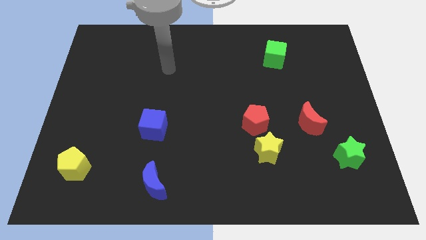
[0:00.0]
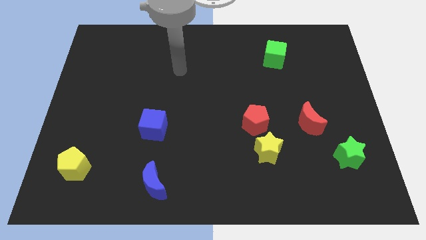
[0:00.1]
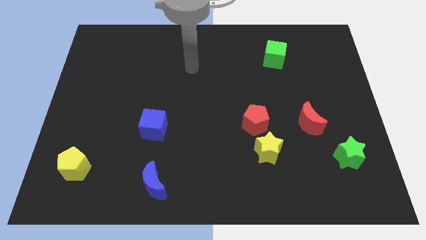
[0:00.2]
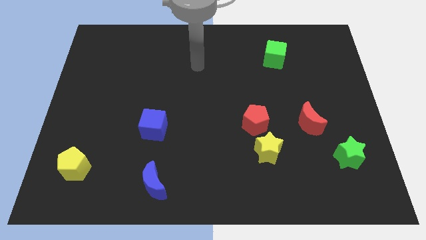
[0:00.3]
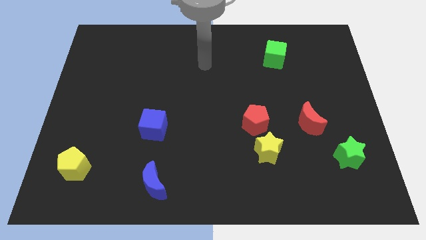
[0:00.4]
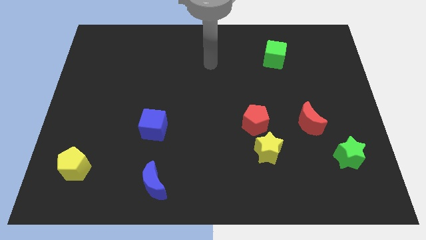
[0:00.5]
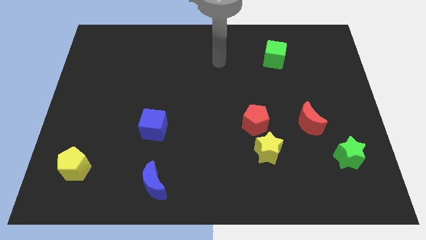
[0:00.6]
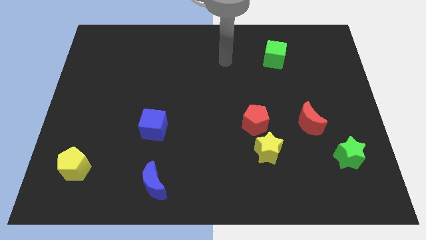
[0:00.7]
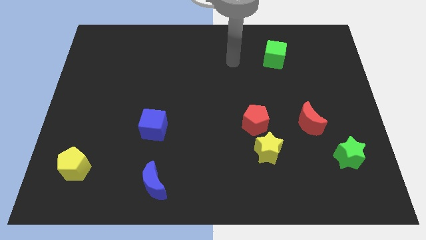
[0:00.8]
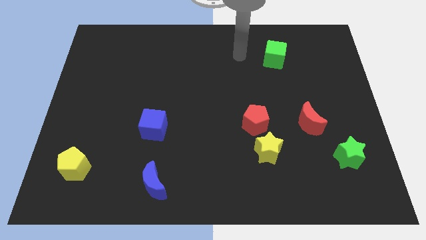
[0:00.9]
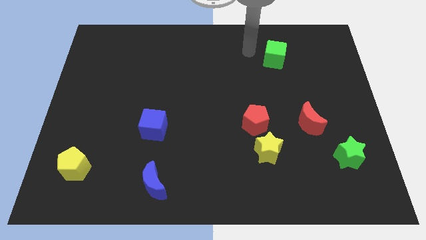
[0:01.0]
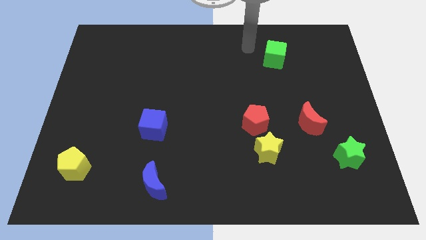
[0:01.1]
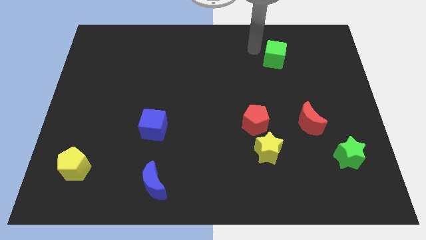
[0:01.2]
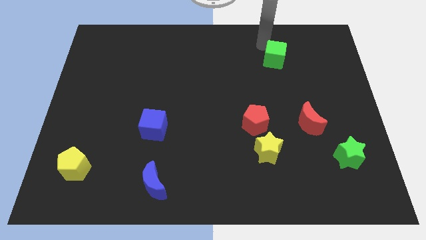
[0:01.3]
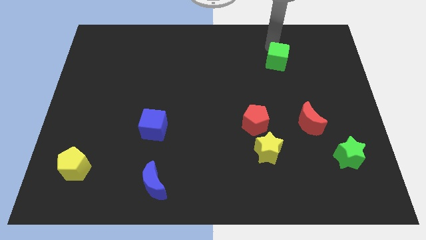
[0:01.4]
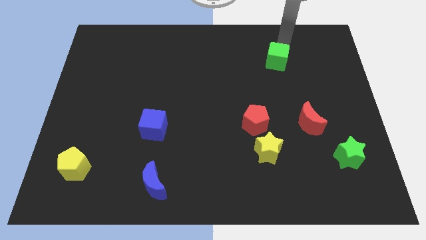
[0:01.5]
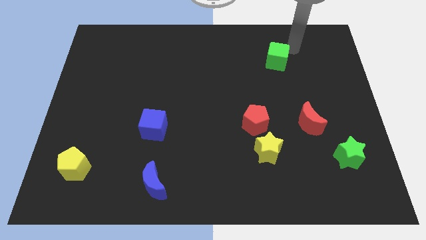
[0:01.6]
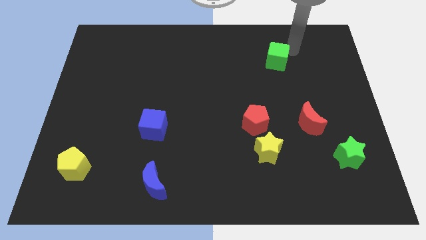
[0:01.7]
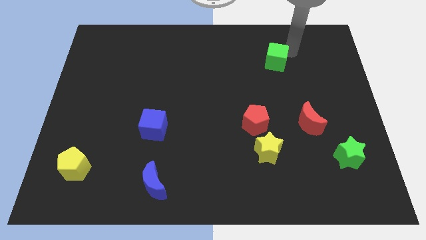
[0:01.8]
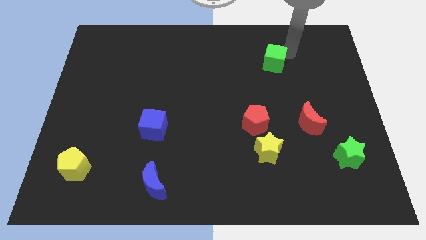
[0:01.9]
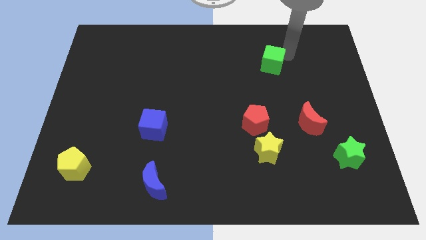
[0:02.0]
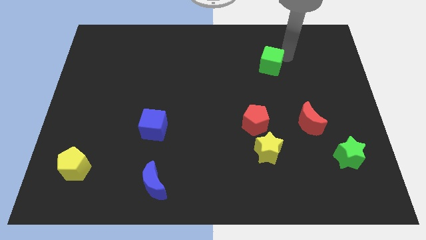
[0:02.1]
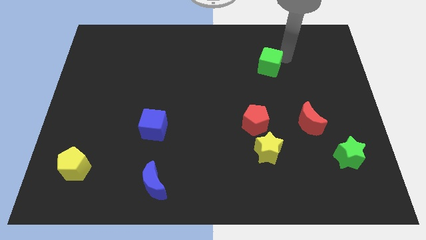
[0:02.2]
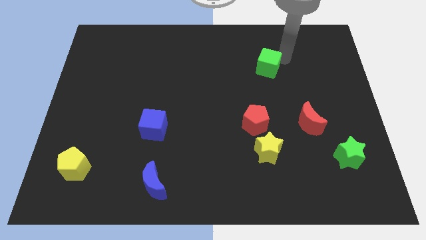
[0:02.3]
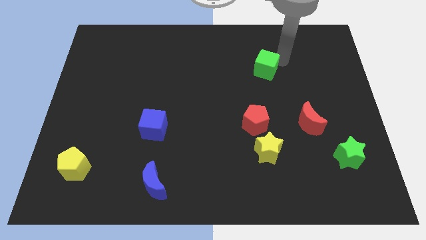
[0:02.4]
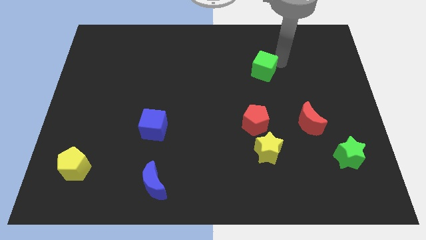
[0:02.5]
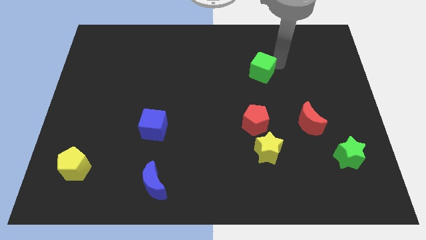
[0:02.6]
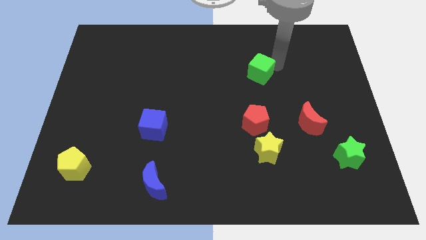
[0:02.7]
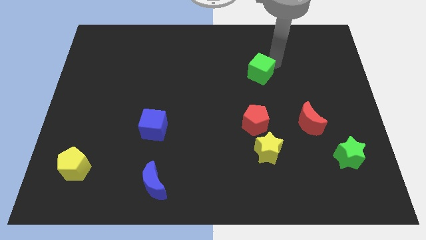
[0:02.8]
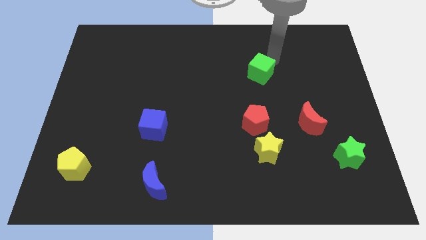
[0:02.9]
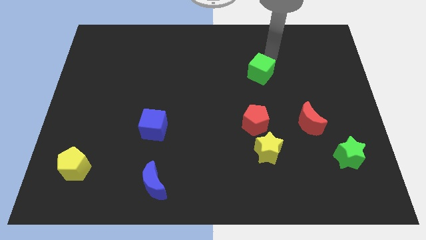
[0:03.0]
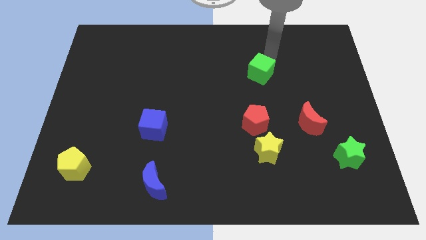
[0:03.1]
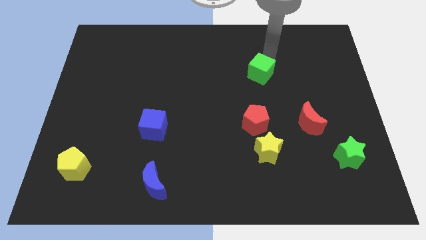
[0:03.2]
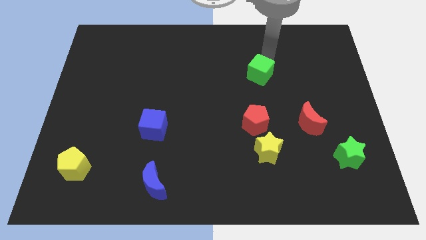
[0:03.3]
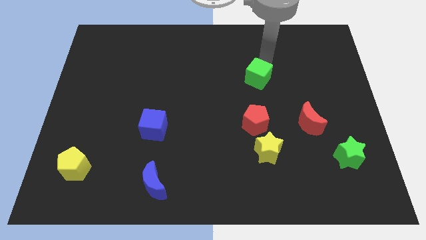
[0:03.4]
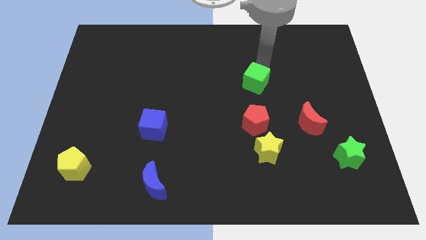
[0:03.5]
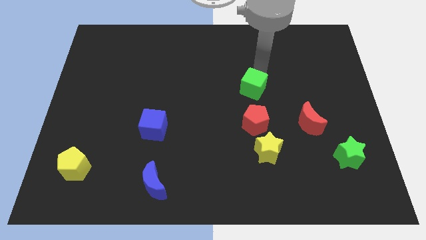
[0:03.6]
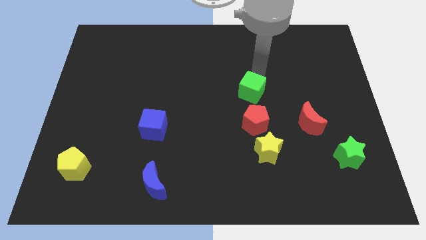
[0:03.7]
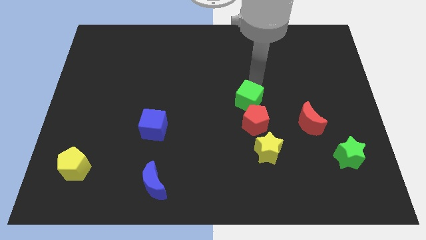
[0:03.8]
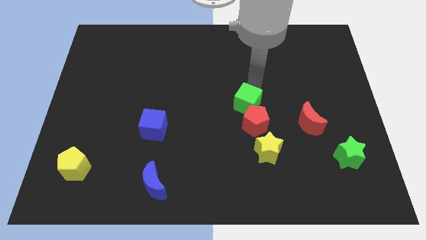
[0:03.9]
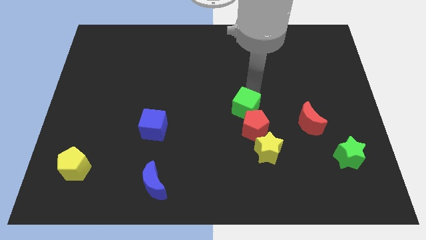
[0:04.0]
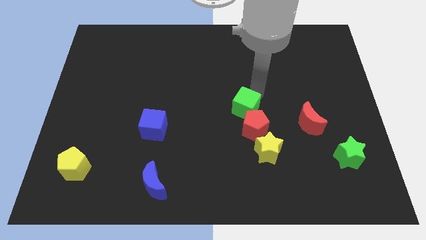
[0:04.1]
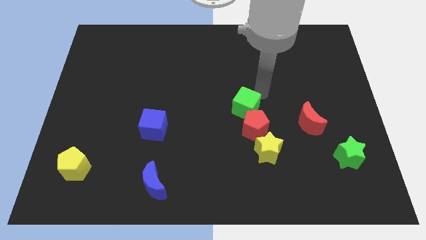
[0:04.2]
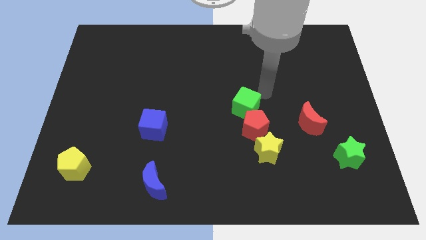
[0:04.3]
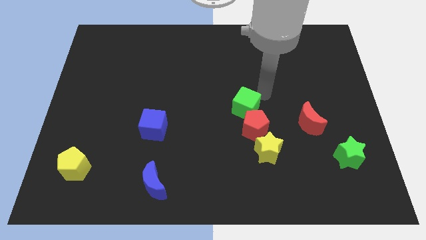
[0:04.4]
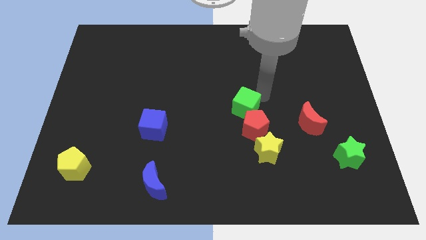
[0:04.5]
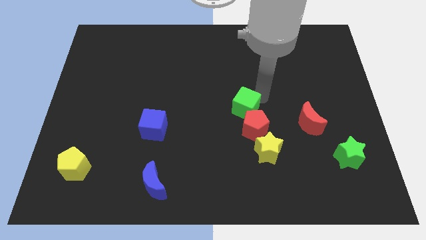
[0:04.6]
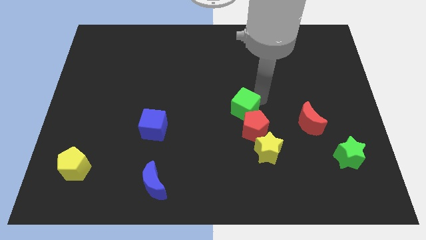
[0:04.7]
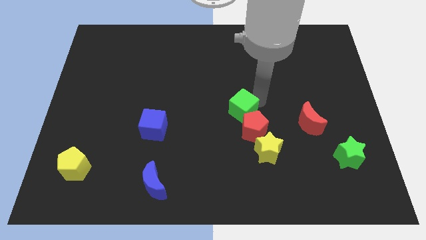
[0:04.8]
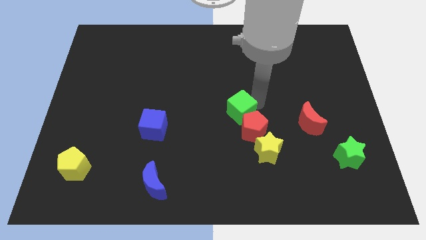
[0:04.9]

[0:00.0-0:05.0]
slide the green cube diagonally up and to the left of the yellow star

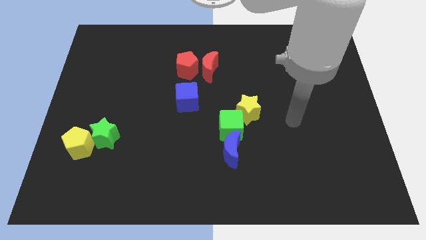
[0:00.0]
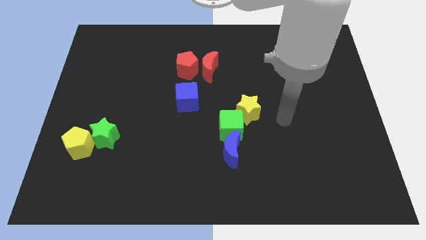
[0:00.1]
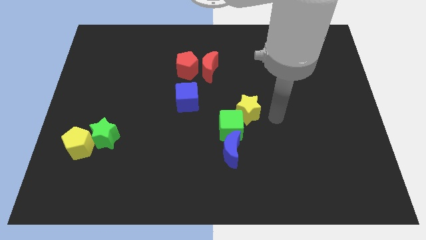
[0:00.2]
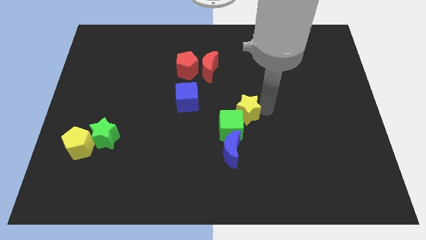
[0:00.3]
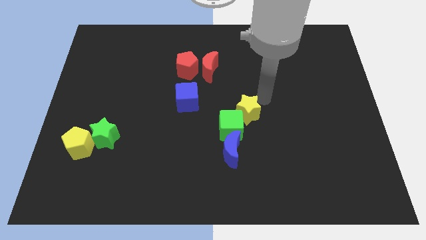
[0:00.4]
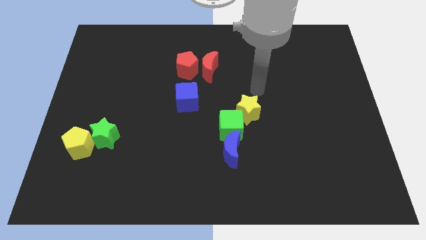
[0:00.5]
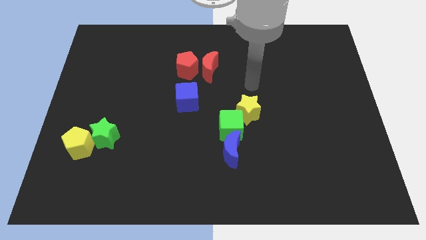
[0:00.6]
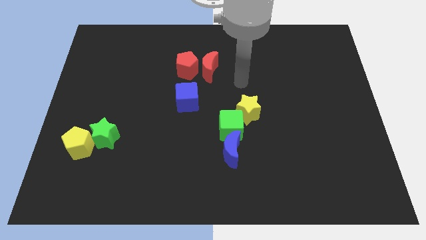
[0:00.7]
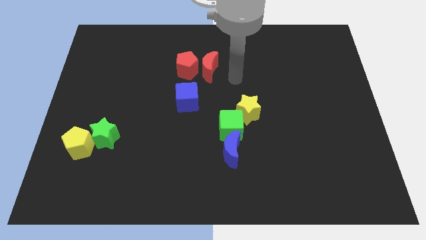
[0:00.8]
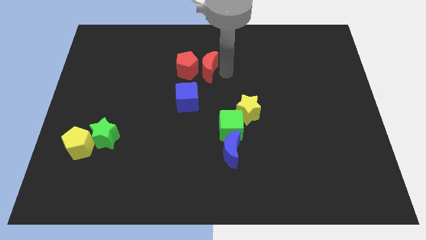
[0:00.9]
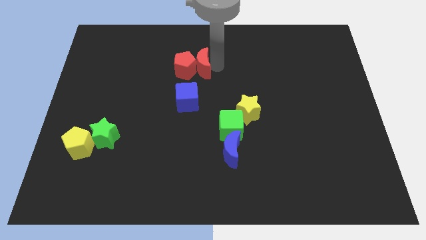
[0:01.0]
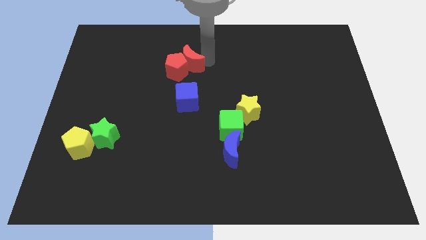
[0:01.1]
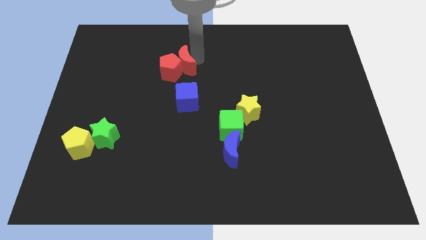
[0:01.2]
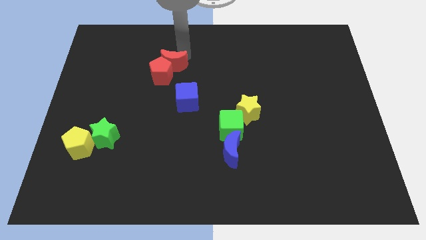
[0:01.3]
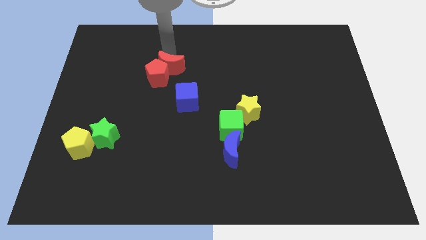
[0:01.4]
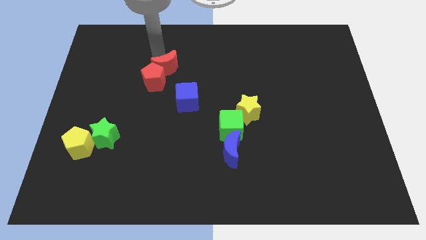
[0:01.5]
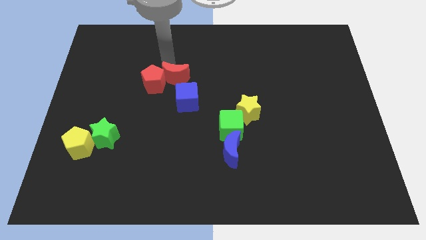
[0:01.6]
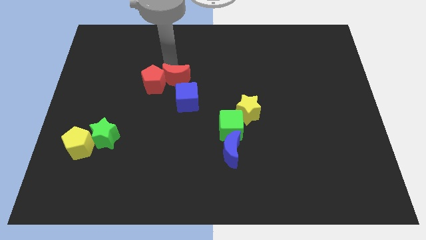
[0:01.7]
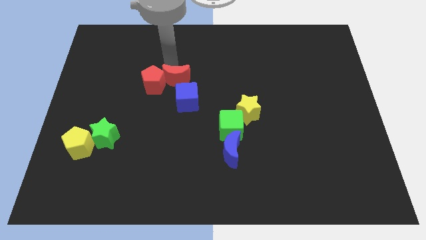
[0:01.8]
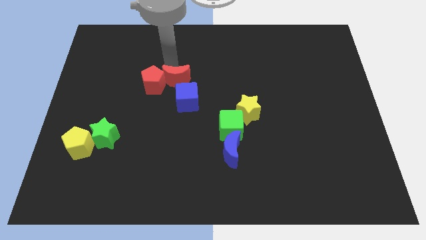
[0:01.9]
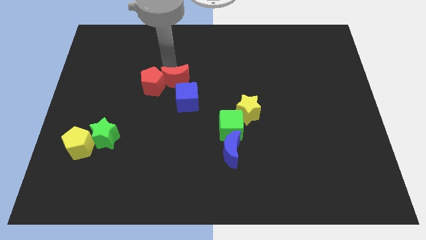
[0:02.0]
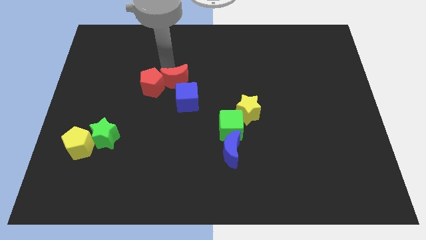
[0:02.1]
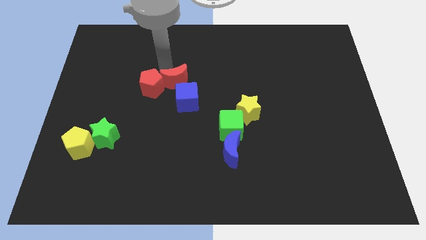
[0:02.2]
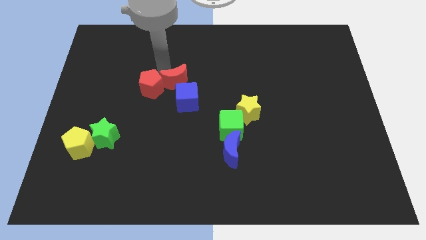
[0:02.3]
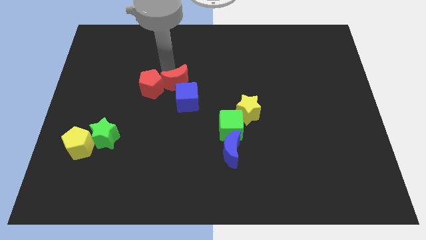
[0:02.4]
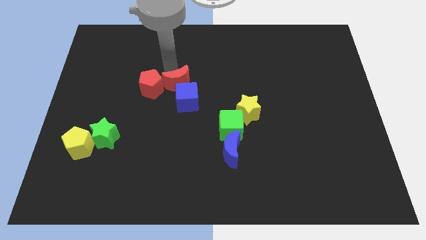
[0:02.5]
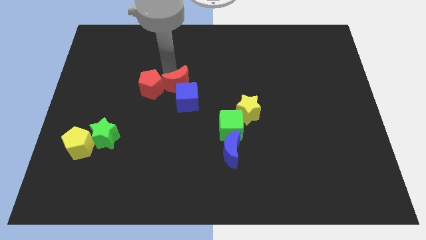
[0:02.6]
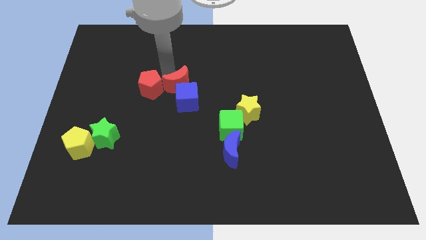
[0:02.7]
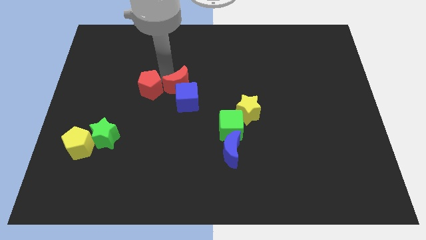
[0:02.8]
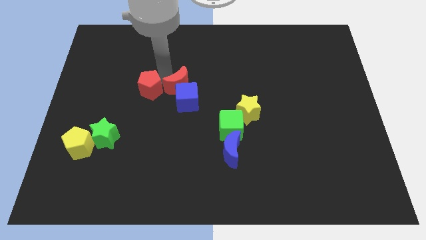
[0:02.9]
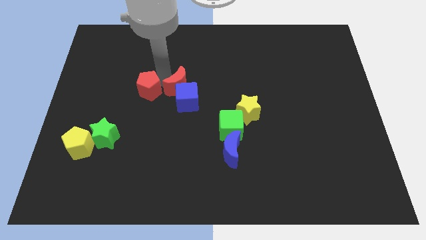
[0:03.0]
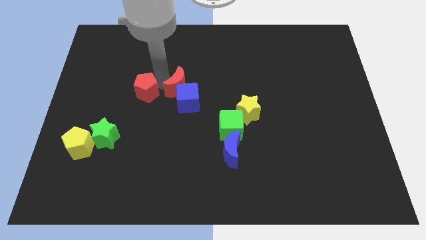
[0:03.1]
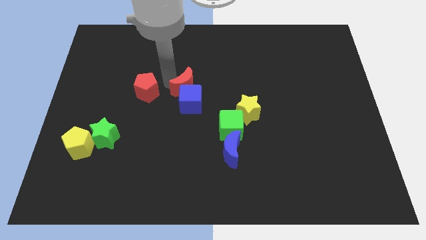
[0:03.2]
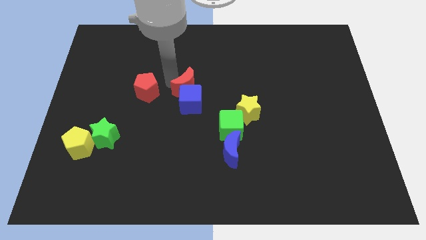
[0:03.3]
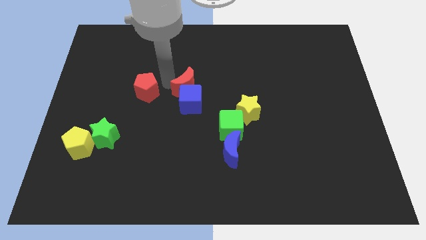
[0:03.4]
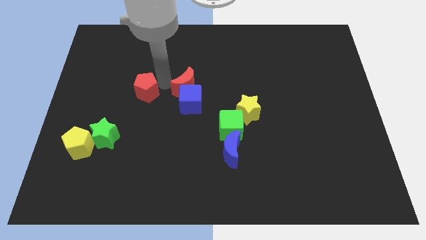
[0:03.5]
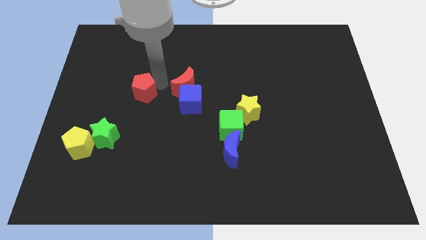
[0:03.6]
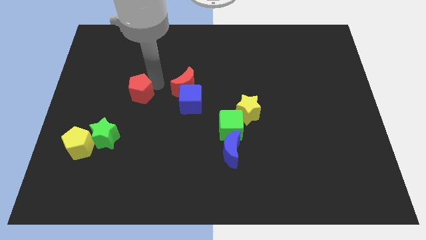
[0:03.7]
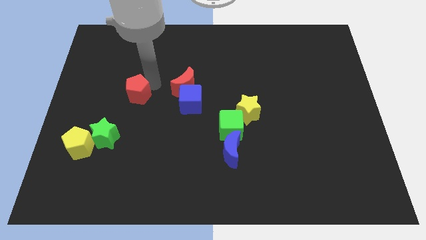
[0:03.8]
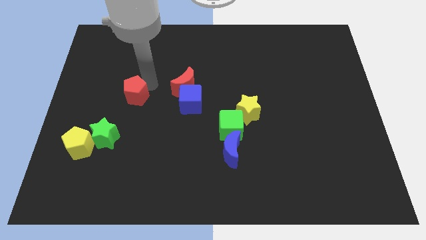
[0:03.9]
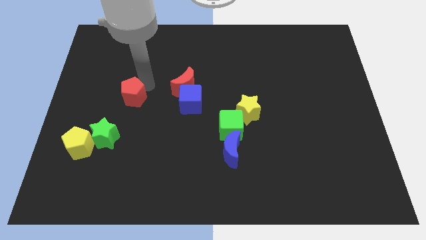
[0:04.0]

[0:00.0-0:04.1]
slide the red pentagon to the top side of the green star
